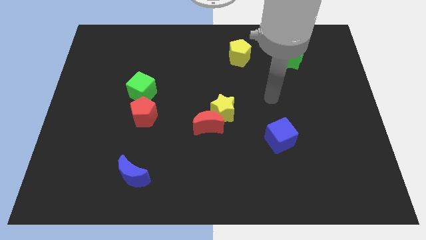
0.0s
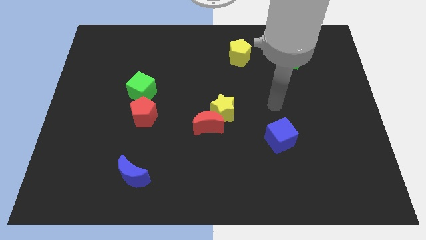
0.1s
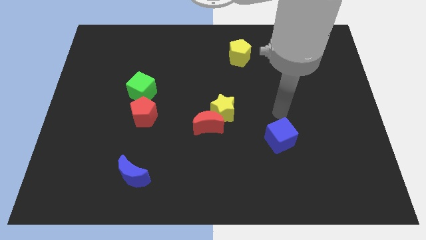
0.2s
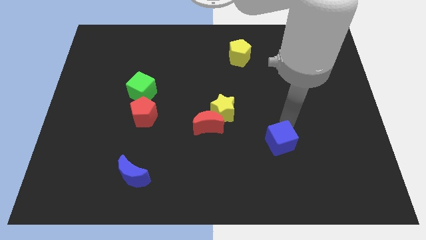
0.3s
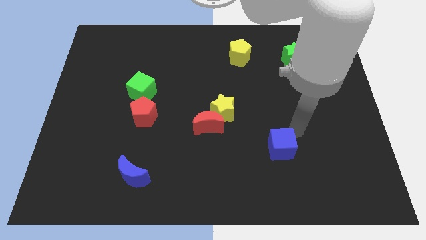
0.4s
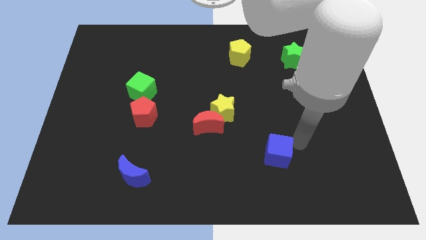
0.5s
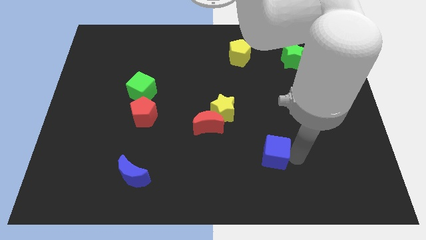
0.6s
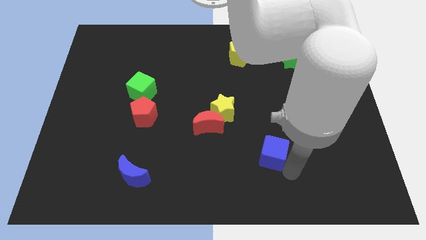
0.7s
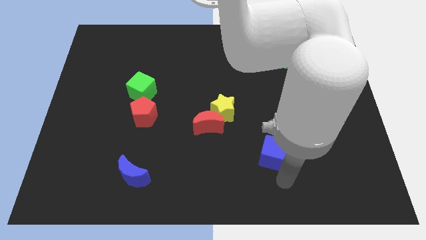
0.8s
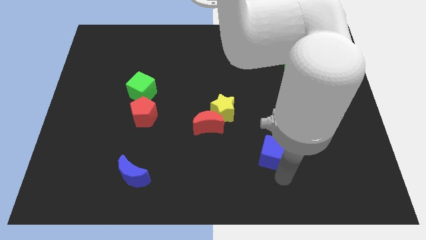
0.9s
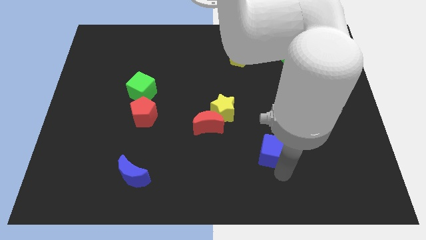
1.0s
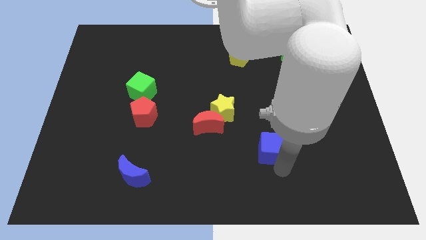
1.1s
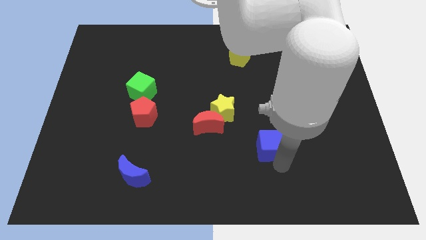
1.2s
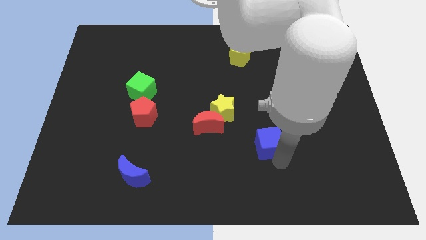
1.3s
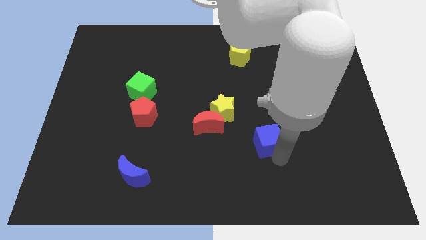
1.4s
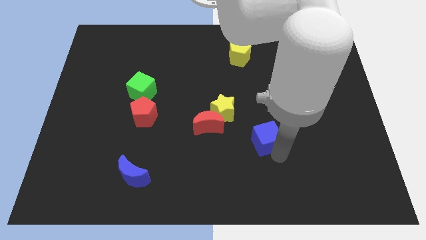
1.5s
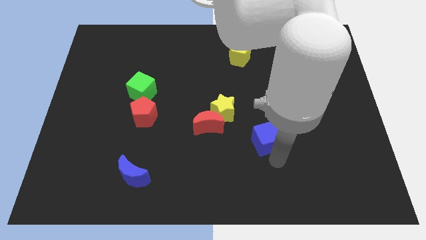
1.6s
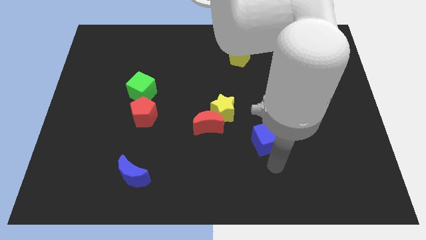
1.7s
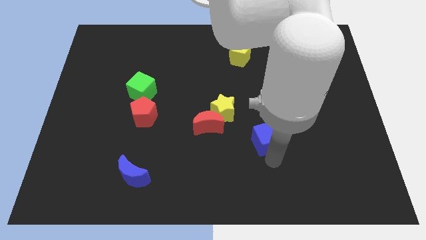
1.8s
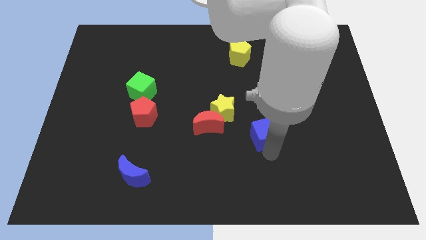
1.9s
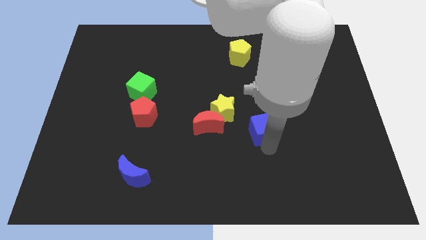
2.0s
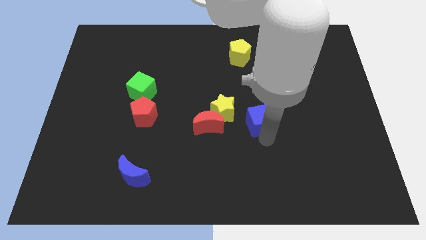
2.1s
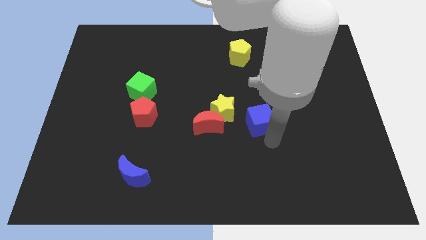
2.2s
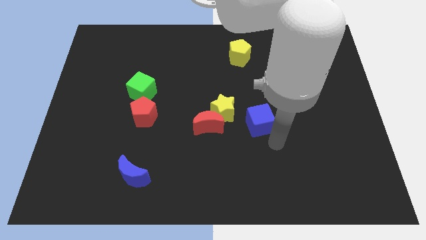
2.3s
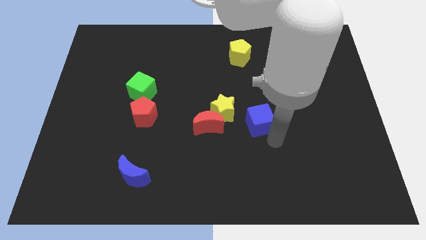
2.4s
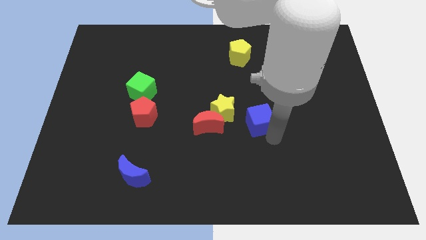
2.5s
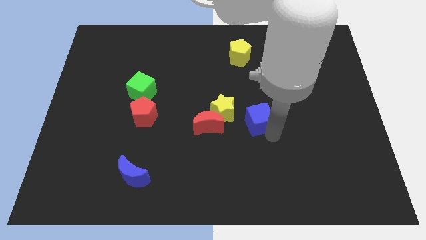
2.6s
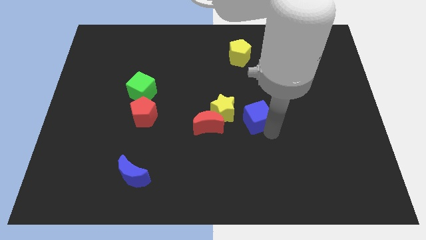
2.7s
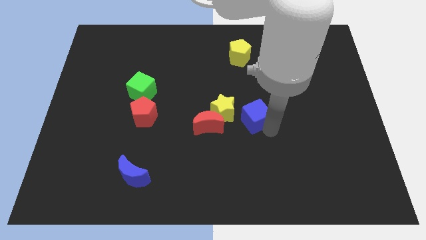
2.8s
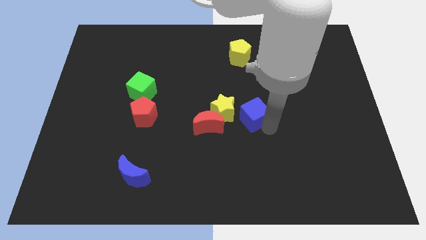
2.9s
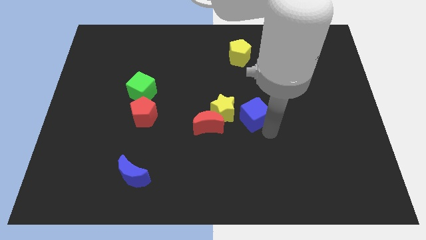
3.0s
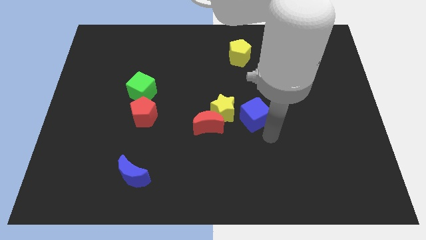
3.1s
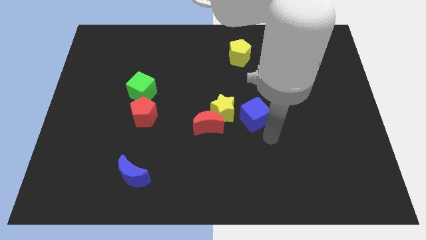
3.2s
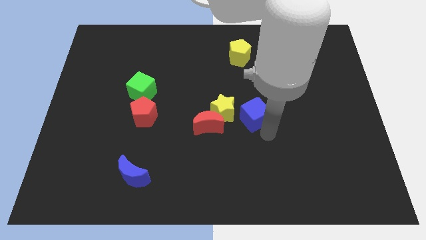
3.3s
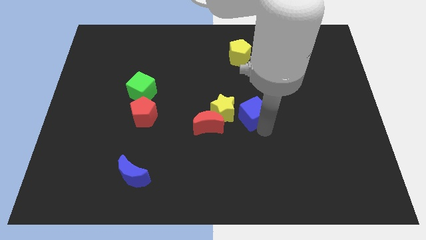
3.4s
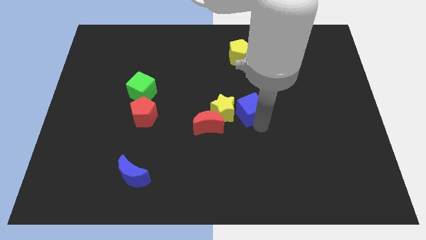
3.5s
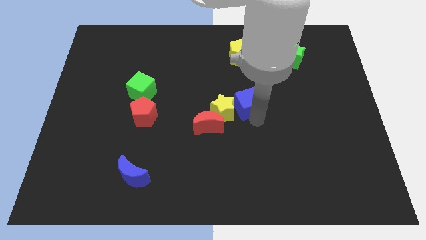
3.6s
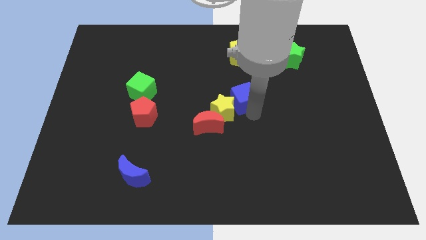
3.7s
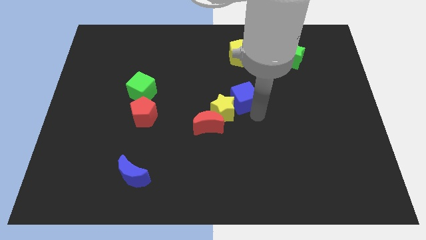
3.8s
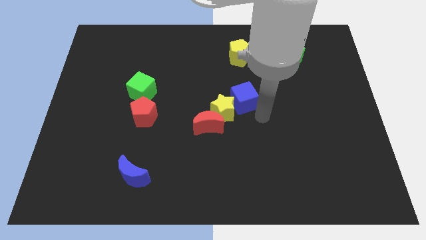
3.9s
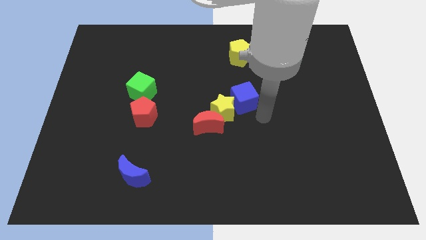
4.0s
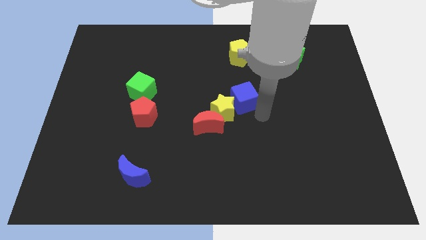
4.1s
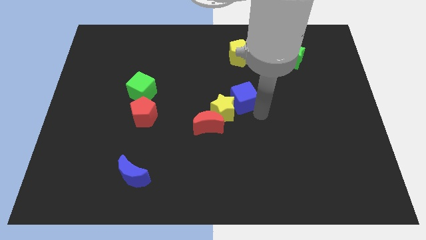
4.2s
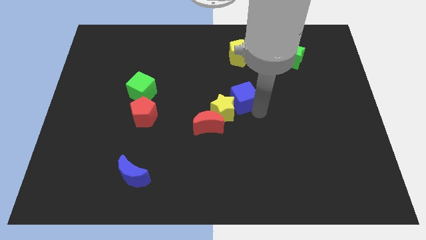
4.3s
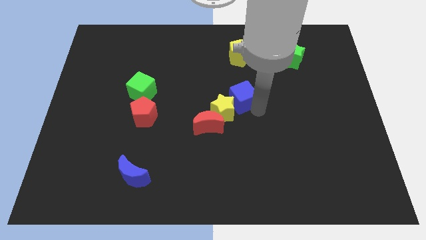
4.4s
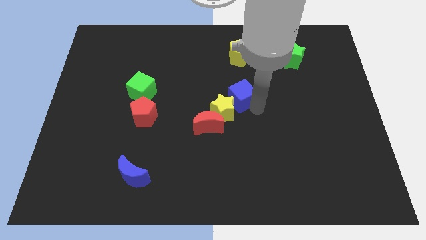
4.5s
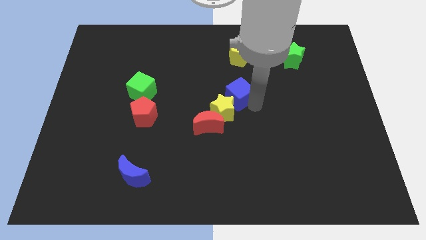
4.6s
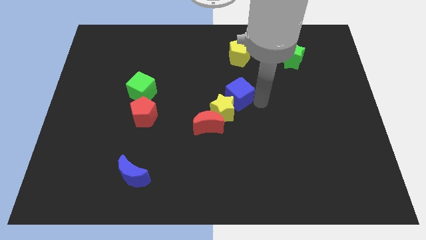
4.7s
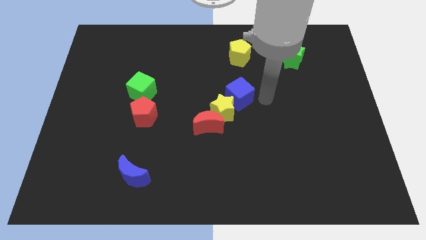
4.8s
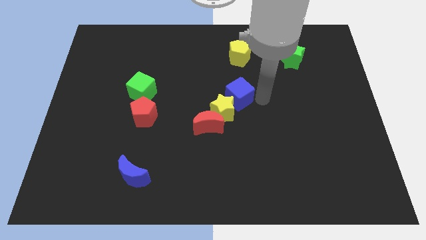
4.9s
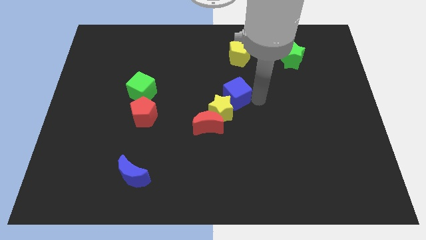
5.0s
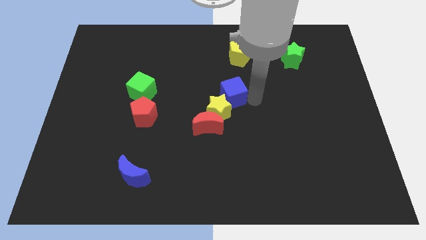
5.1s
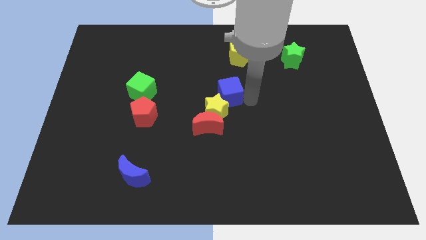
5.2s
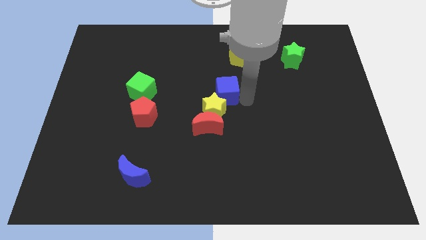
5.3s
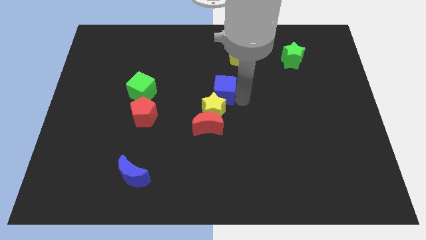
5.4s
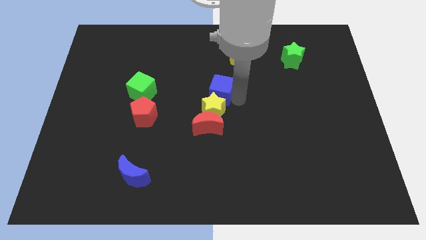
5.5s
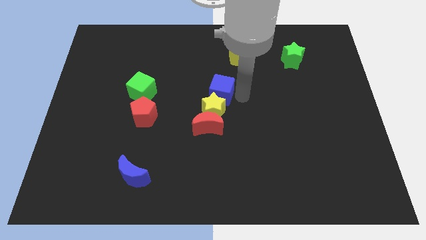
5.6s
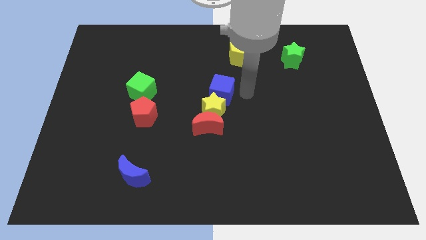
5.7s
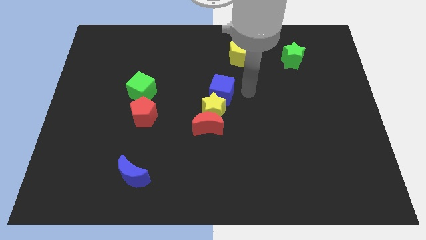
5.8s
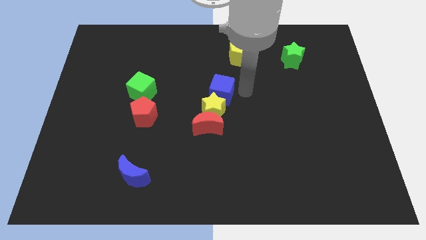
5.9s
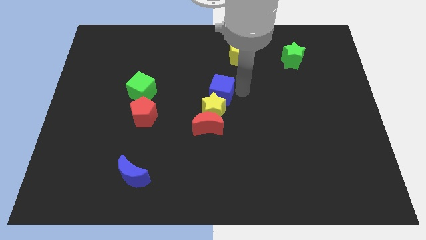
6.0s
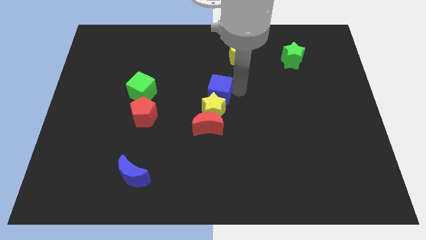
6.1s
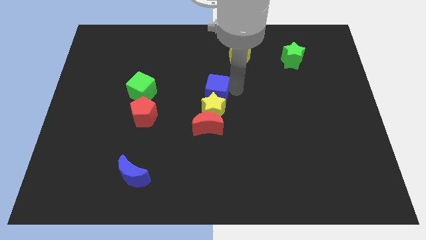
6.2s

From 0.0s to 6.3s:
push the blue cube to the top left of the yellow star
